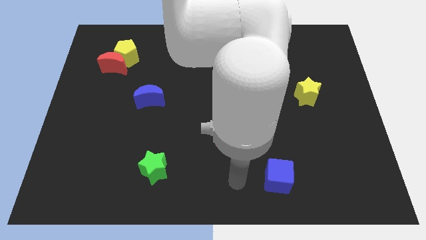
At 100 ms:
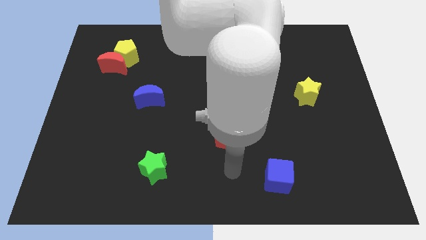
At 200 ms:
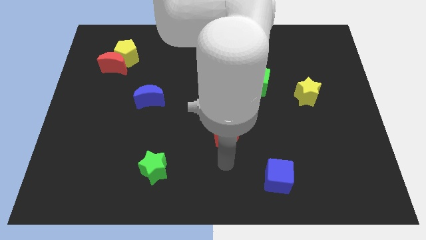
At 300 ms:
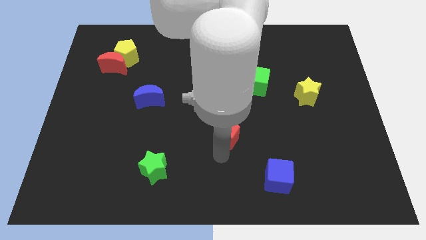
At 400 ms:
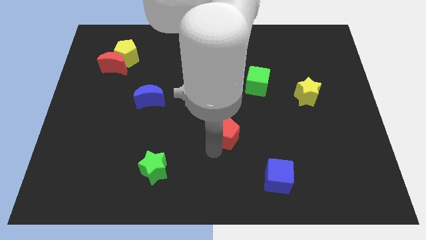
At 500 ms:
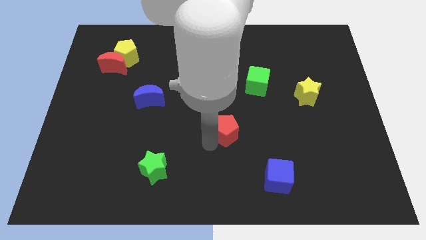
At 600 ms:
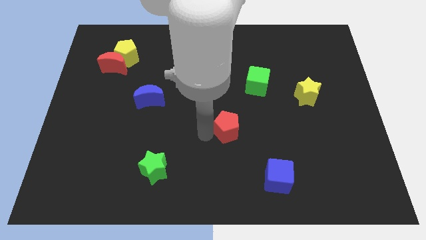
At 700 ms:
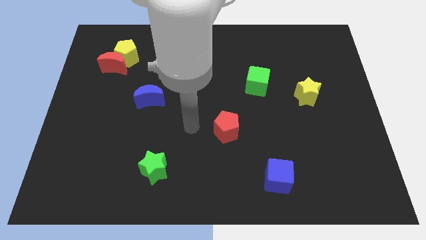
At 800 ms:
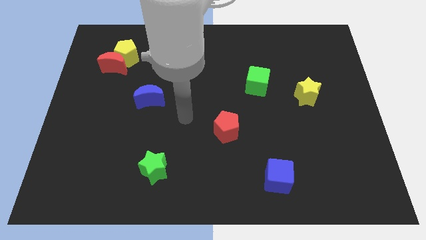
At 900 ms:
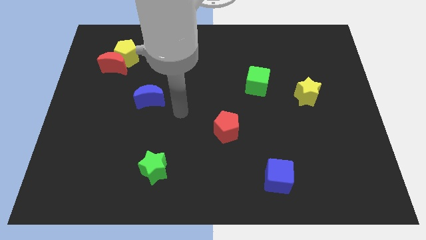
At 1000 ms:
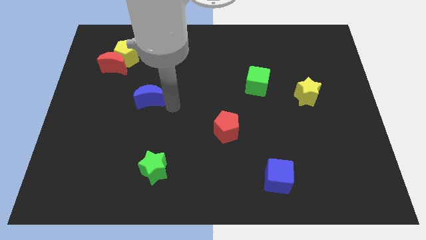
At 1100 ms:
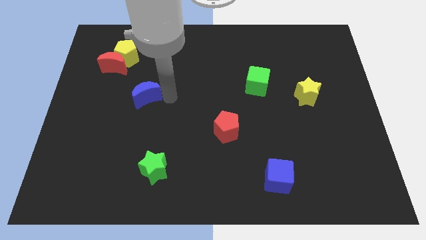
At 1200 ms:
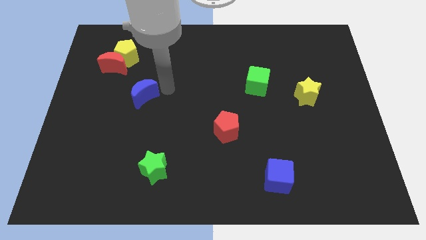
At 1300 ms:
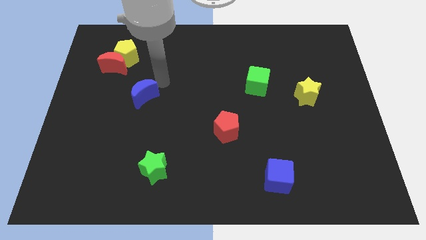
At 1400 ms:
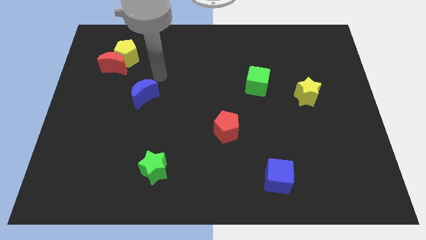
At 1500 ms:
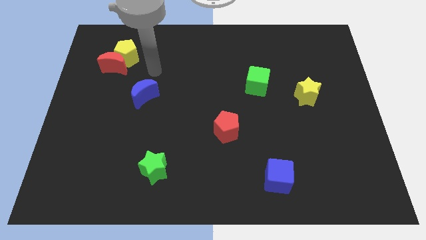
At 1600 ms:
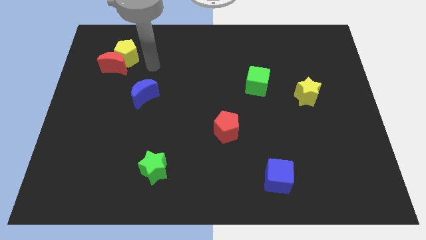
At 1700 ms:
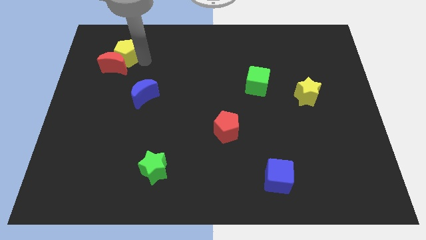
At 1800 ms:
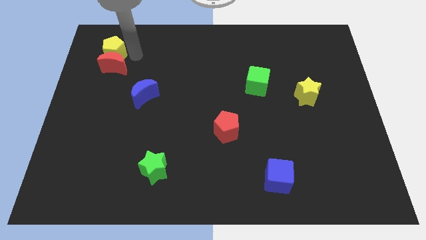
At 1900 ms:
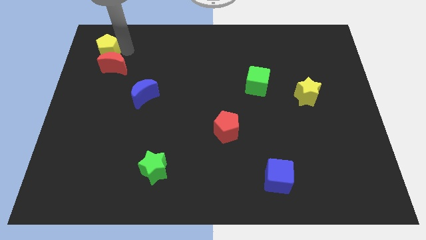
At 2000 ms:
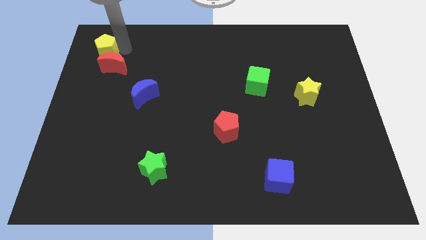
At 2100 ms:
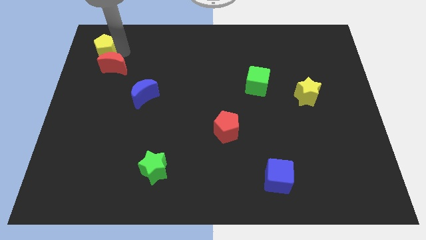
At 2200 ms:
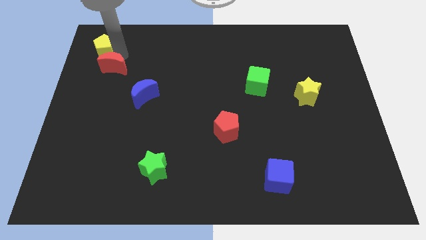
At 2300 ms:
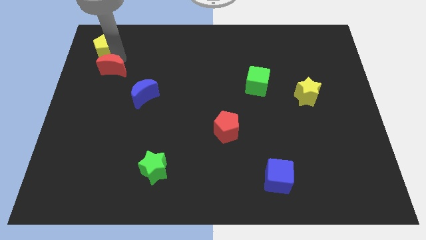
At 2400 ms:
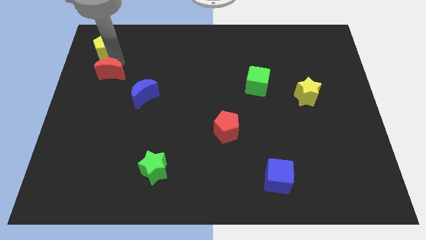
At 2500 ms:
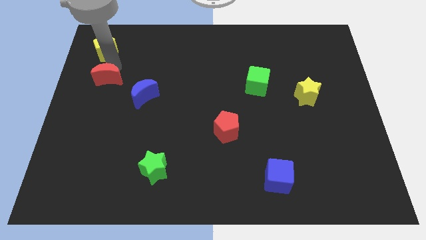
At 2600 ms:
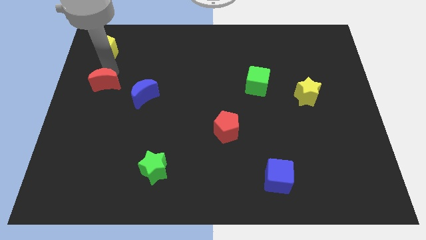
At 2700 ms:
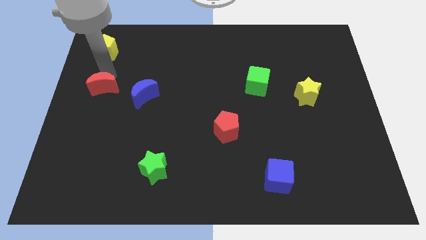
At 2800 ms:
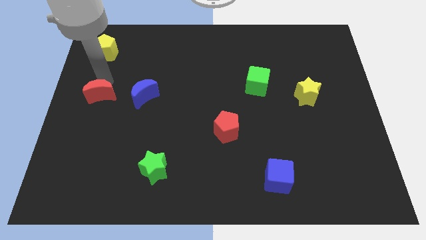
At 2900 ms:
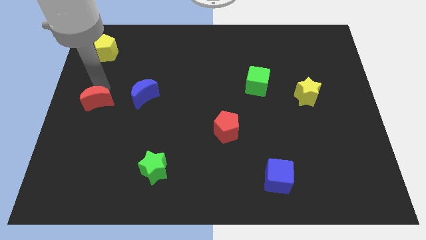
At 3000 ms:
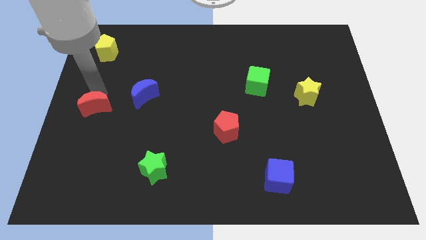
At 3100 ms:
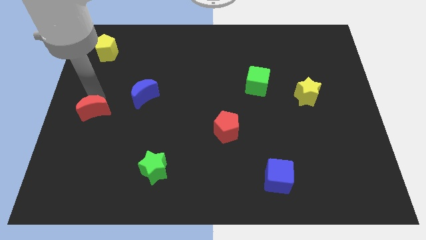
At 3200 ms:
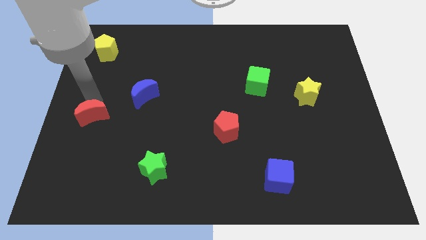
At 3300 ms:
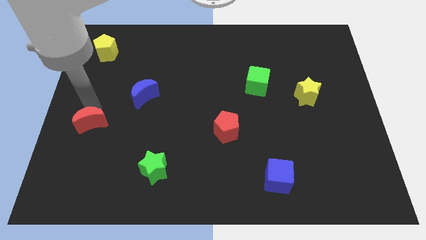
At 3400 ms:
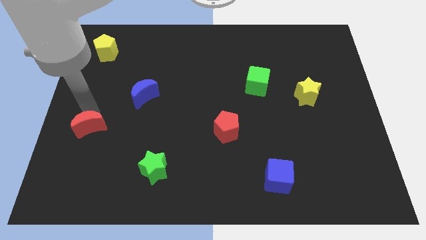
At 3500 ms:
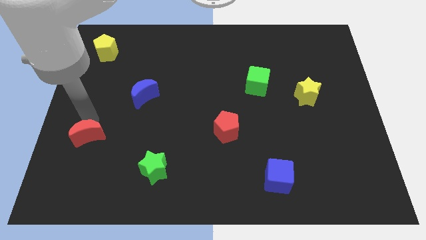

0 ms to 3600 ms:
slide the red moon downwards

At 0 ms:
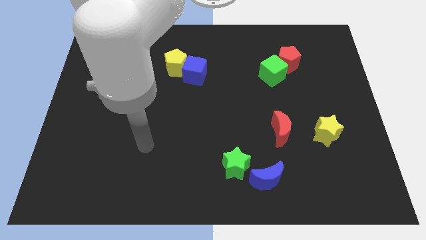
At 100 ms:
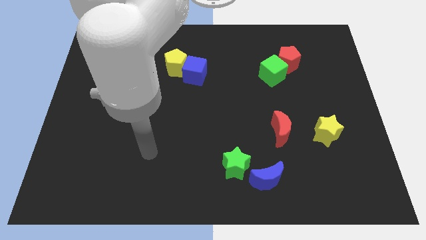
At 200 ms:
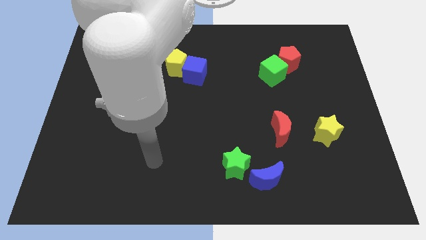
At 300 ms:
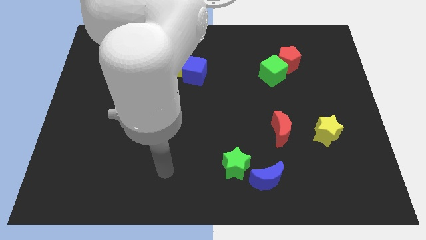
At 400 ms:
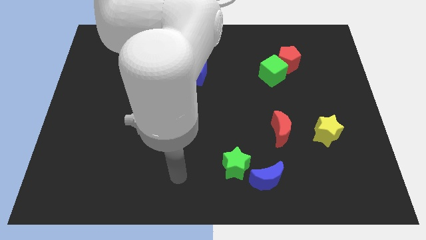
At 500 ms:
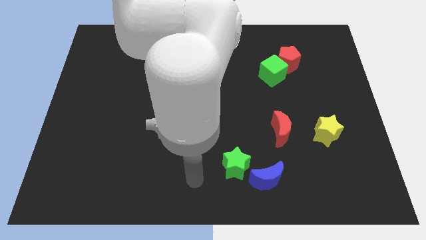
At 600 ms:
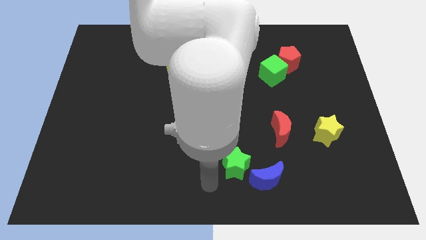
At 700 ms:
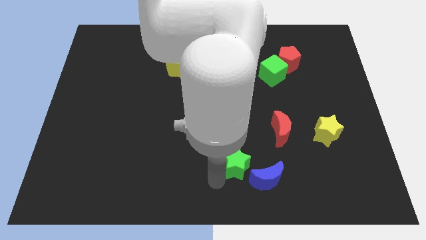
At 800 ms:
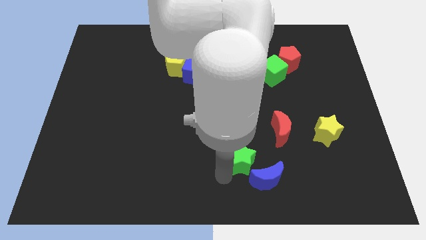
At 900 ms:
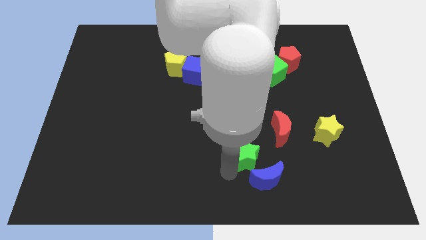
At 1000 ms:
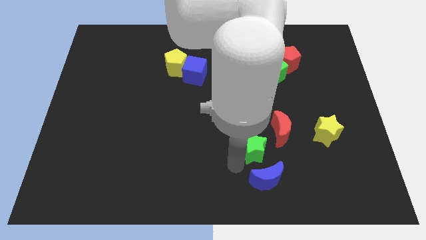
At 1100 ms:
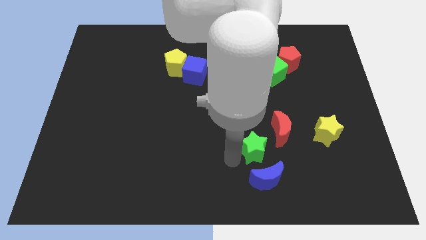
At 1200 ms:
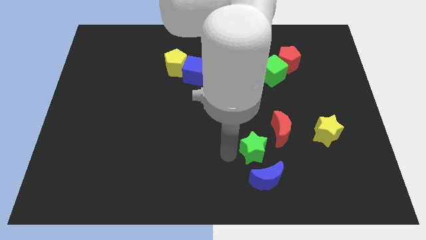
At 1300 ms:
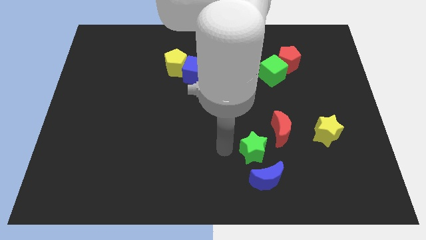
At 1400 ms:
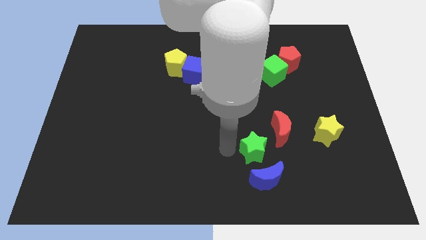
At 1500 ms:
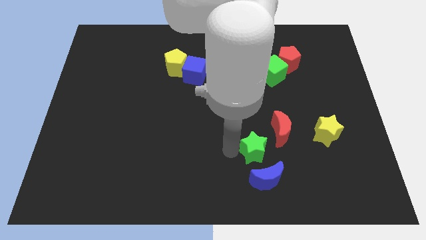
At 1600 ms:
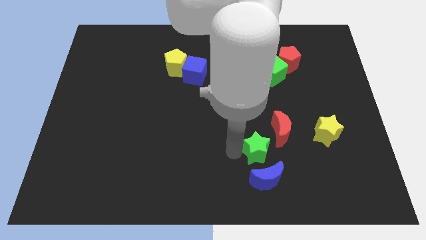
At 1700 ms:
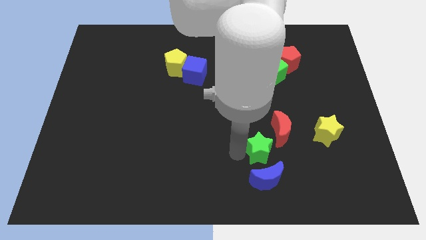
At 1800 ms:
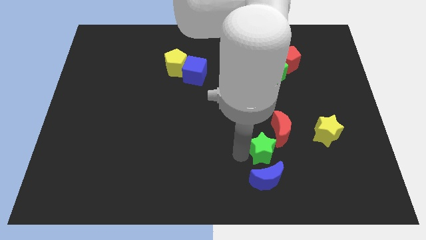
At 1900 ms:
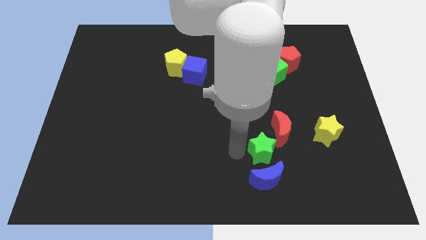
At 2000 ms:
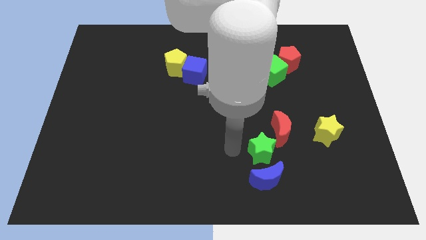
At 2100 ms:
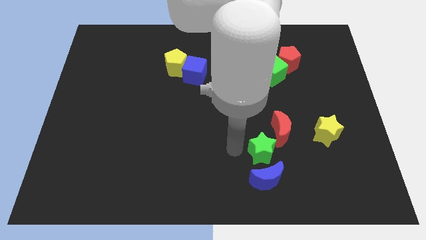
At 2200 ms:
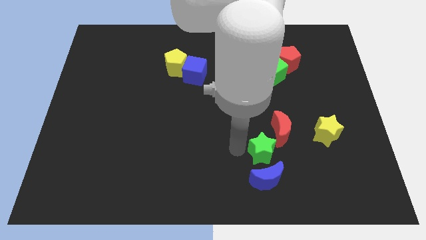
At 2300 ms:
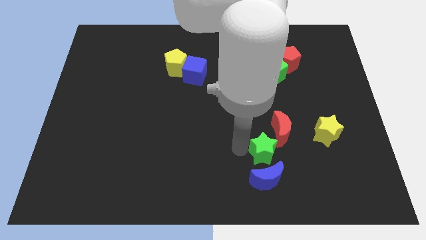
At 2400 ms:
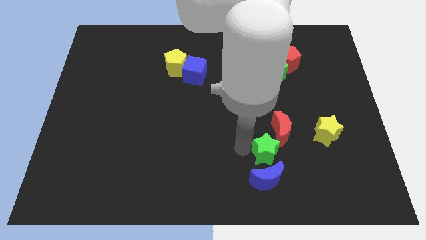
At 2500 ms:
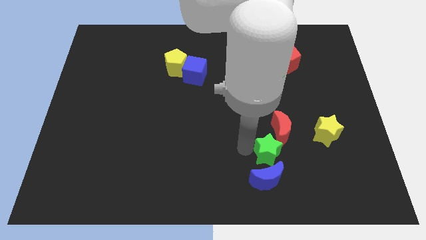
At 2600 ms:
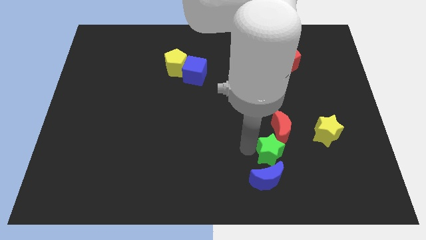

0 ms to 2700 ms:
slightly move the green star right

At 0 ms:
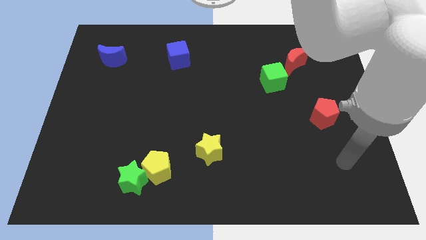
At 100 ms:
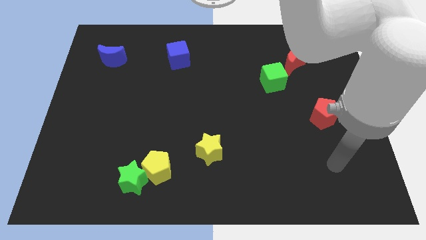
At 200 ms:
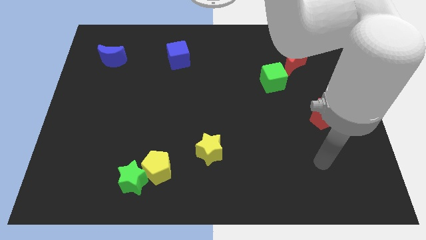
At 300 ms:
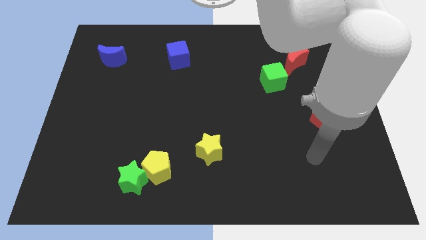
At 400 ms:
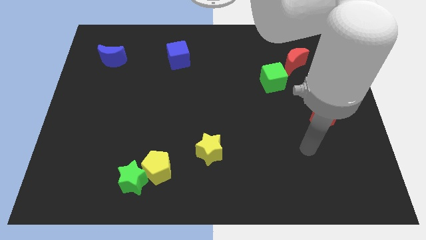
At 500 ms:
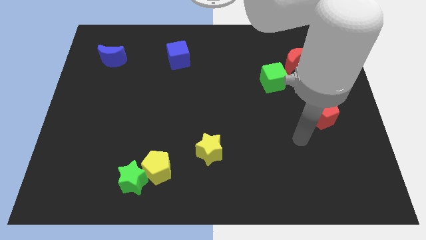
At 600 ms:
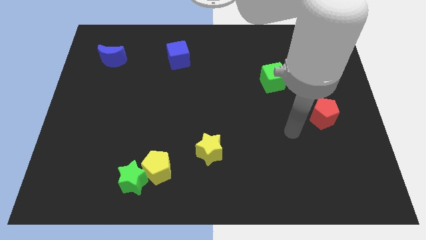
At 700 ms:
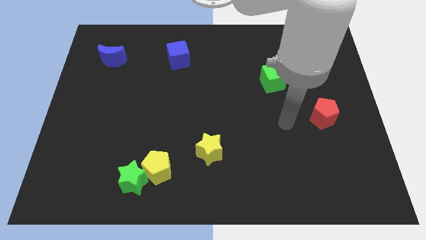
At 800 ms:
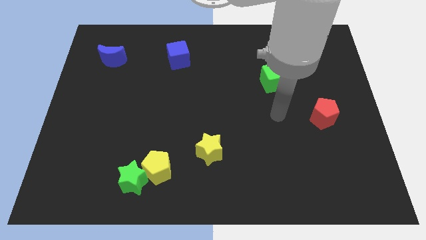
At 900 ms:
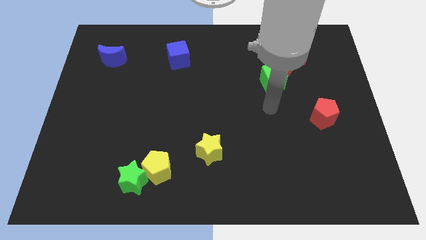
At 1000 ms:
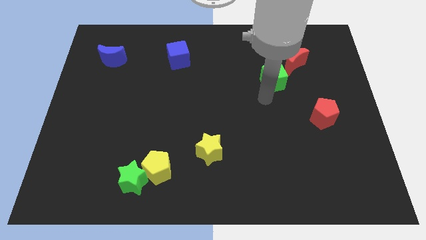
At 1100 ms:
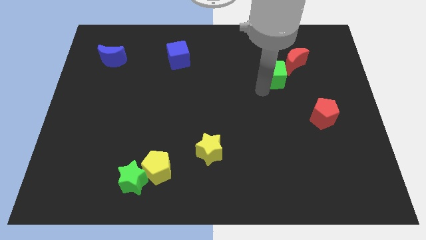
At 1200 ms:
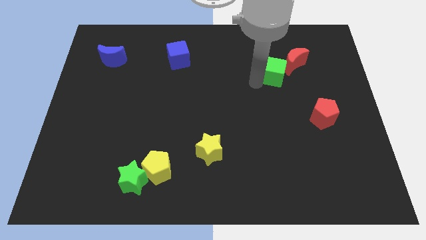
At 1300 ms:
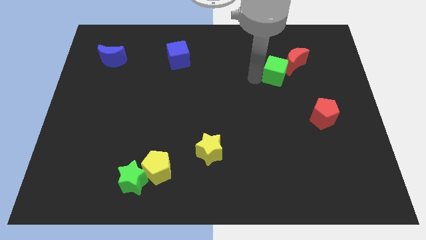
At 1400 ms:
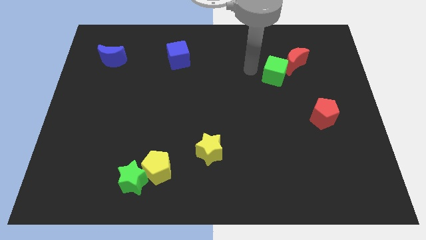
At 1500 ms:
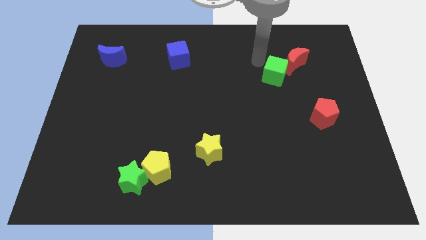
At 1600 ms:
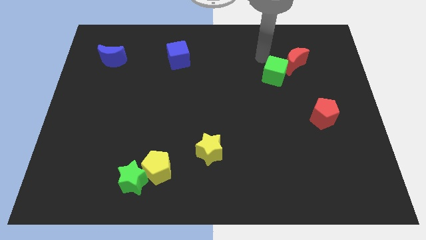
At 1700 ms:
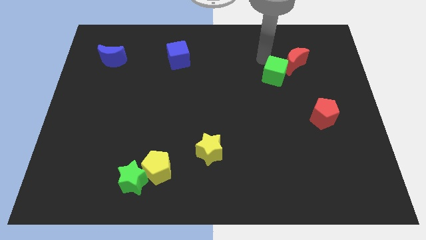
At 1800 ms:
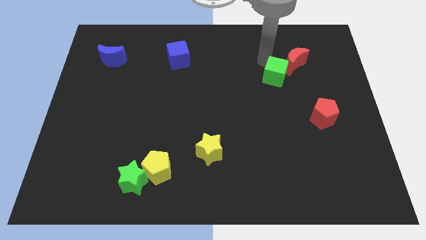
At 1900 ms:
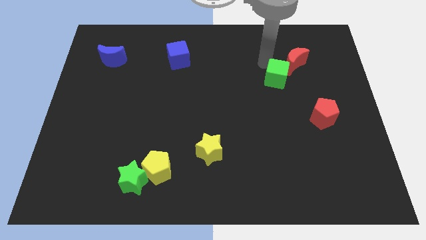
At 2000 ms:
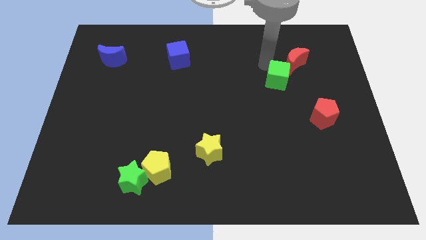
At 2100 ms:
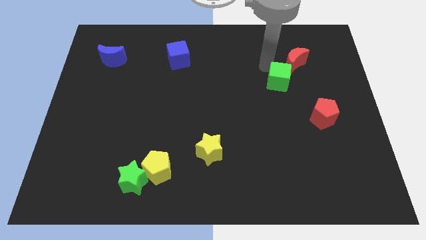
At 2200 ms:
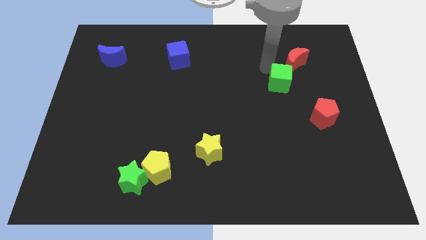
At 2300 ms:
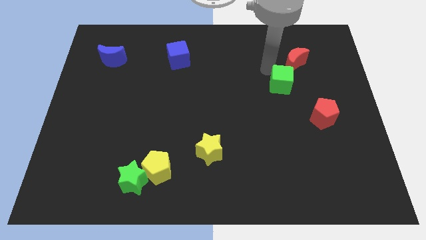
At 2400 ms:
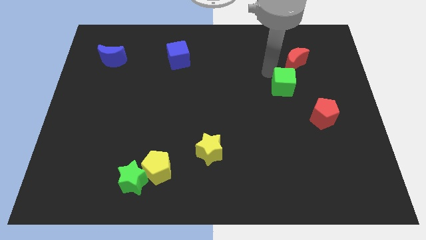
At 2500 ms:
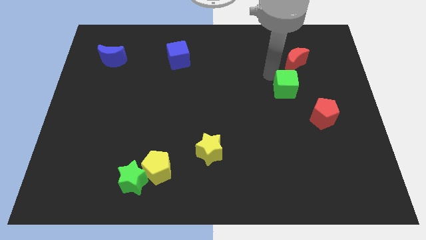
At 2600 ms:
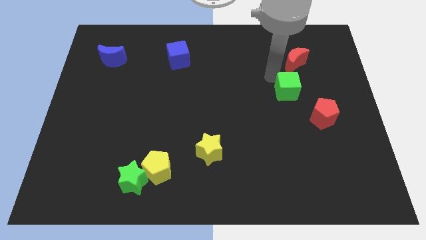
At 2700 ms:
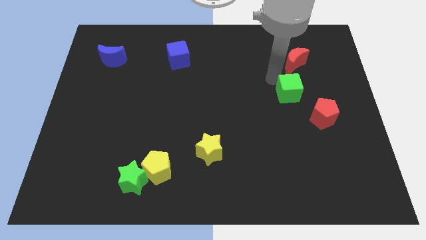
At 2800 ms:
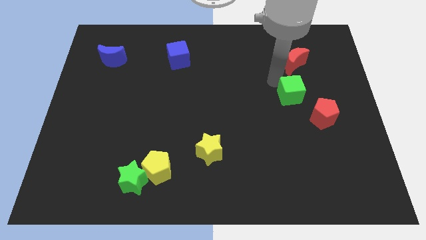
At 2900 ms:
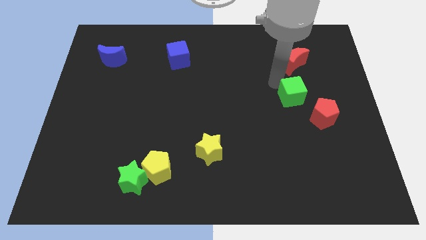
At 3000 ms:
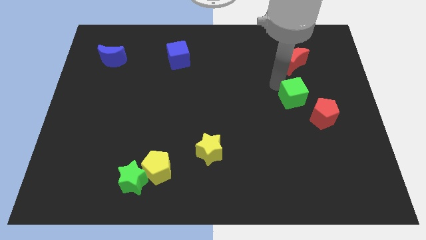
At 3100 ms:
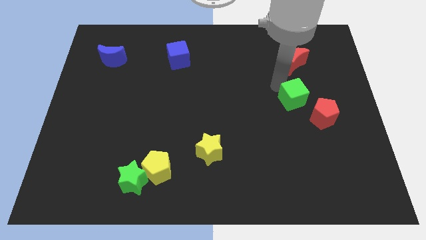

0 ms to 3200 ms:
slightly move the green cube diagonally downwards and right
